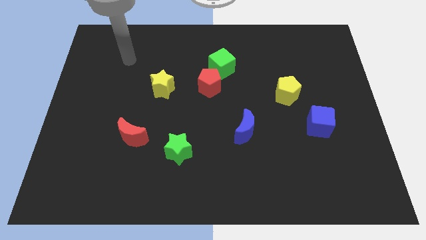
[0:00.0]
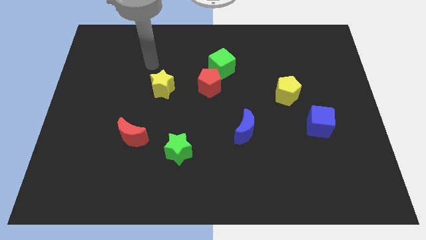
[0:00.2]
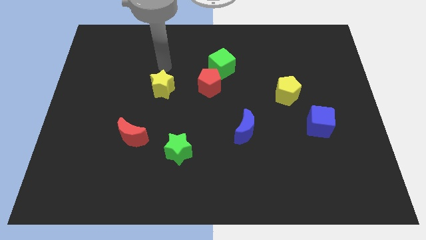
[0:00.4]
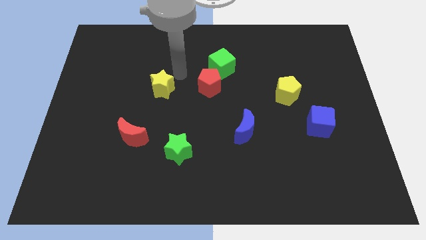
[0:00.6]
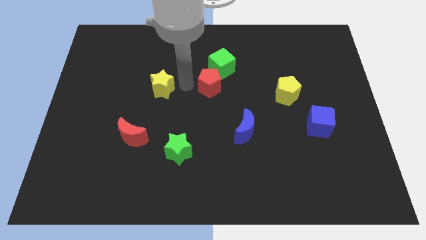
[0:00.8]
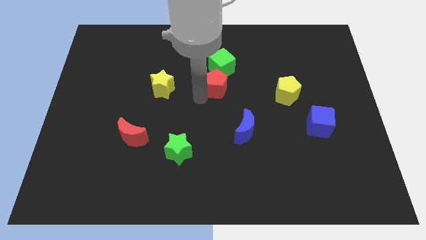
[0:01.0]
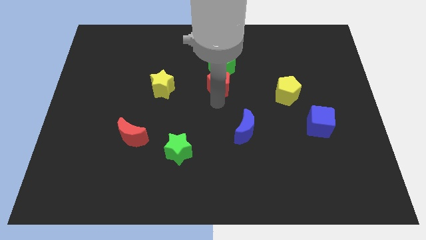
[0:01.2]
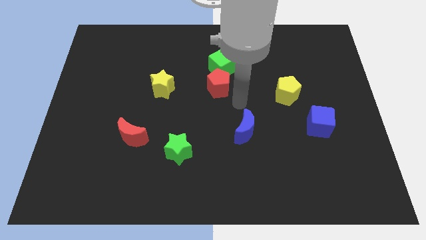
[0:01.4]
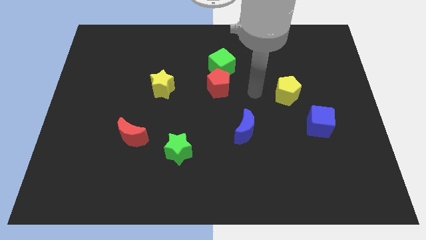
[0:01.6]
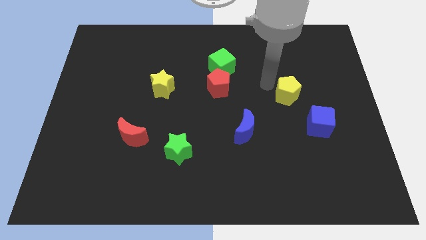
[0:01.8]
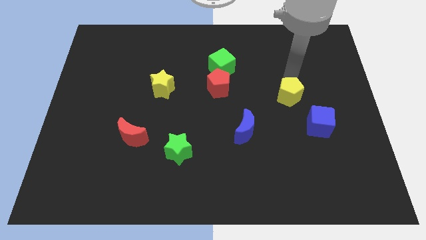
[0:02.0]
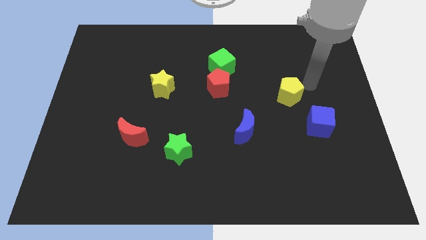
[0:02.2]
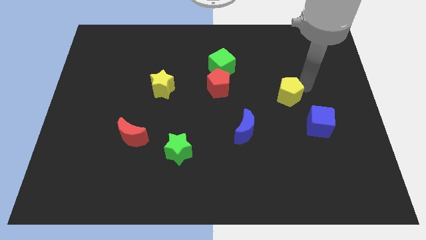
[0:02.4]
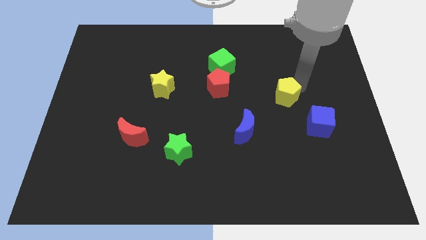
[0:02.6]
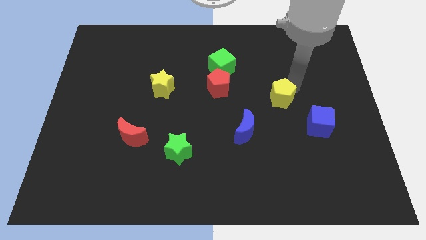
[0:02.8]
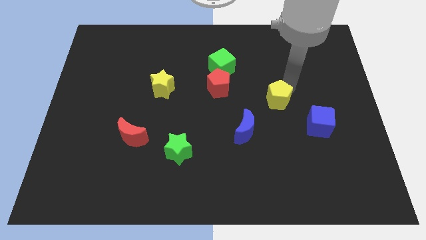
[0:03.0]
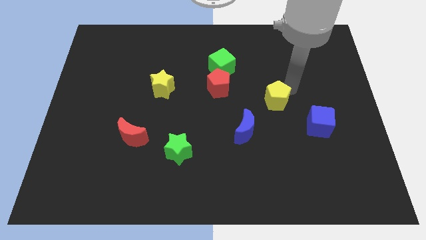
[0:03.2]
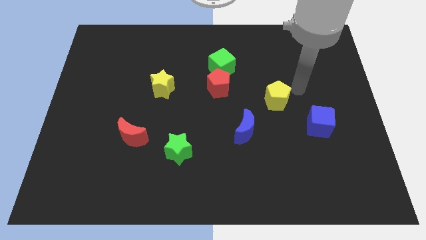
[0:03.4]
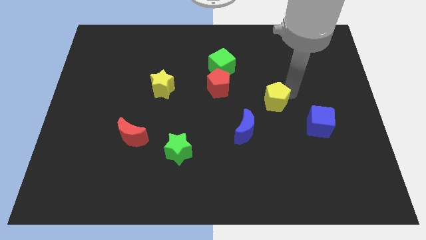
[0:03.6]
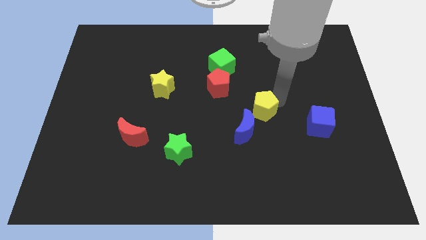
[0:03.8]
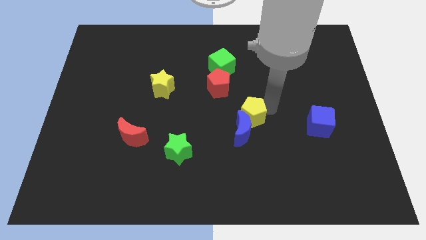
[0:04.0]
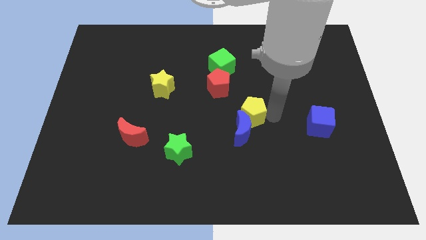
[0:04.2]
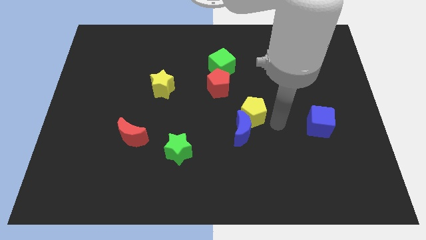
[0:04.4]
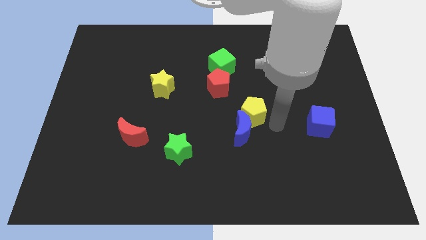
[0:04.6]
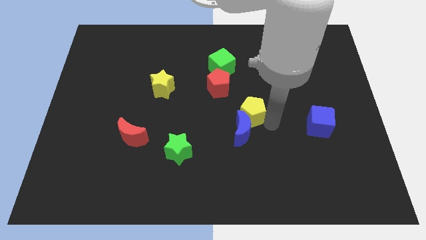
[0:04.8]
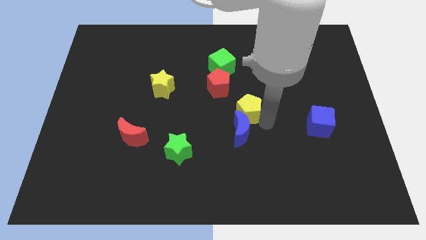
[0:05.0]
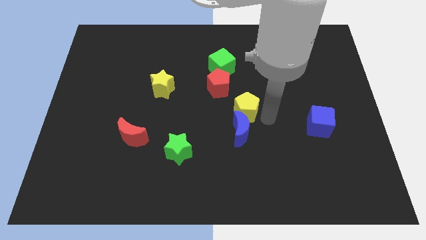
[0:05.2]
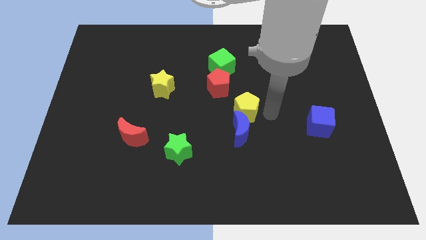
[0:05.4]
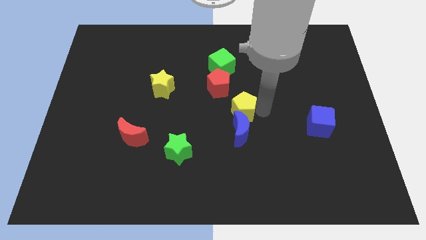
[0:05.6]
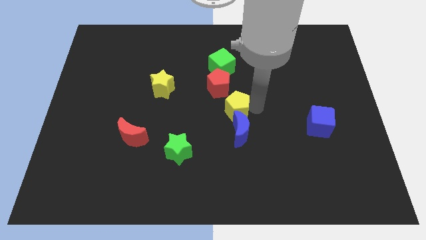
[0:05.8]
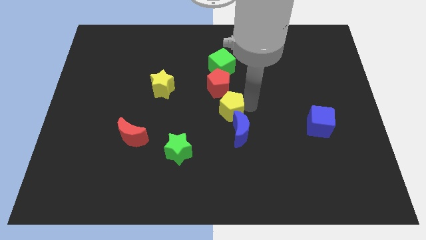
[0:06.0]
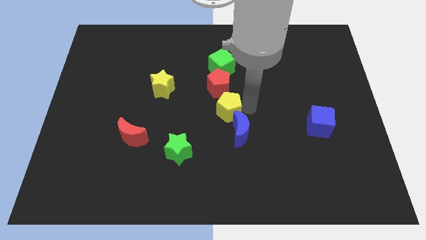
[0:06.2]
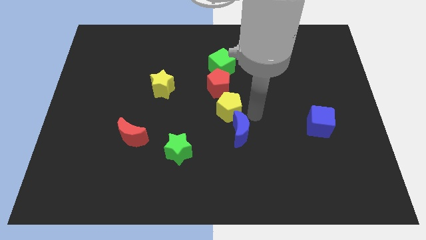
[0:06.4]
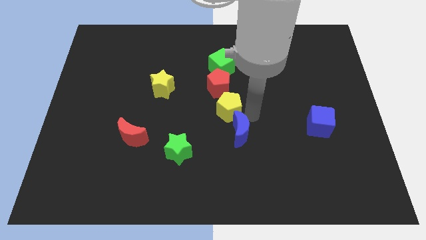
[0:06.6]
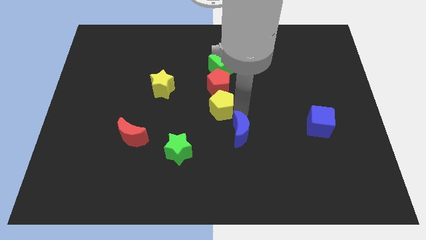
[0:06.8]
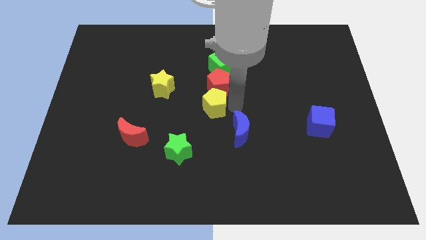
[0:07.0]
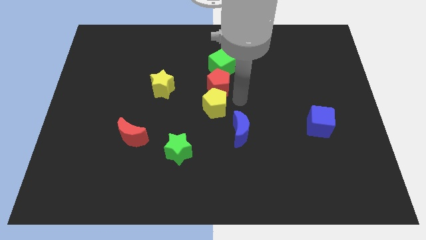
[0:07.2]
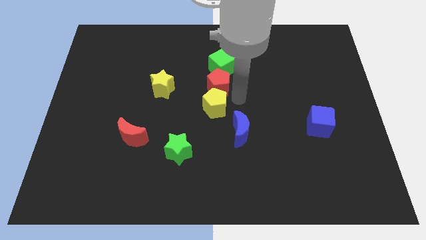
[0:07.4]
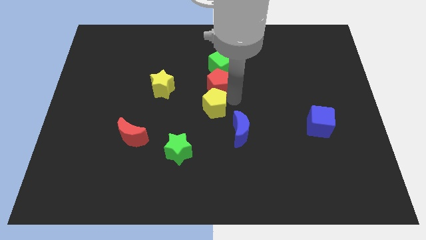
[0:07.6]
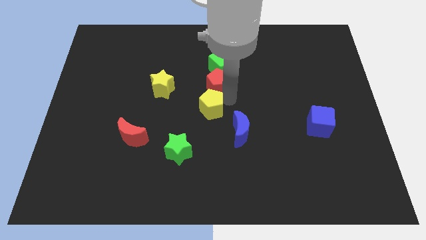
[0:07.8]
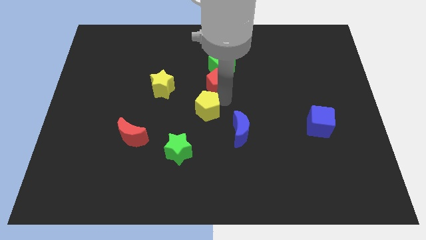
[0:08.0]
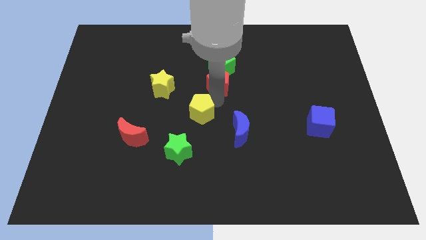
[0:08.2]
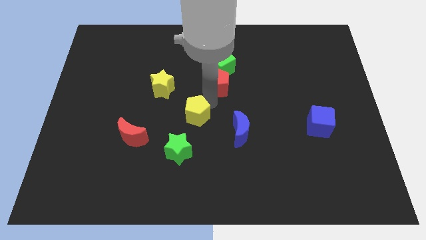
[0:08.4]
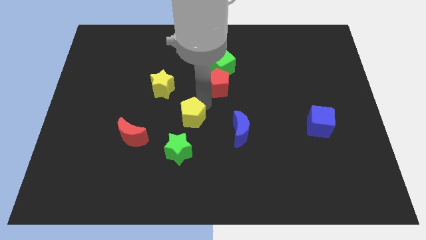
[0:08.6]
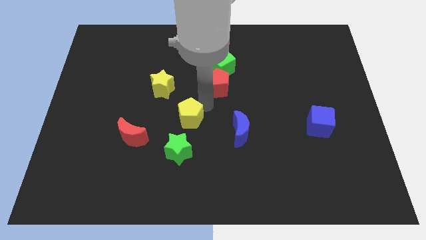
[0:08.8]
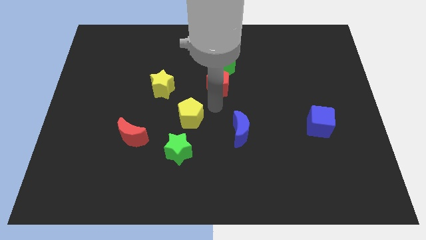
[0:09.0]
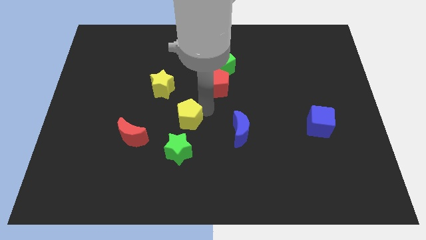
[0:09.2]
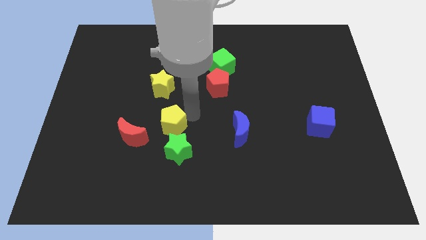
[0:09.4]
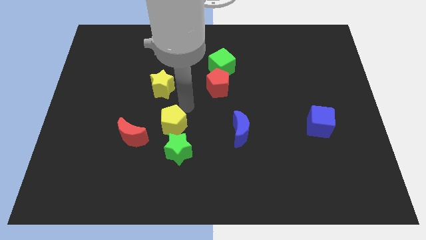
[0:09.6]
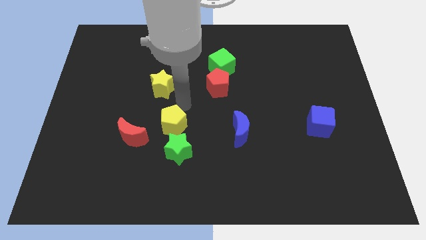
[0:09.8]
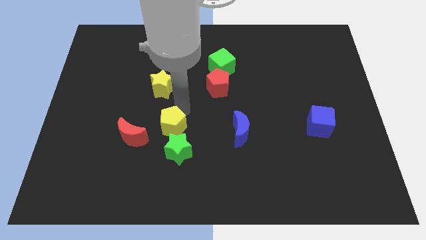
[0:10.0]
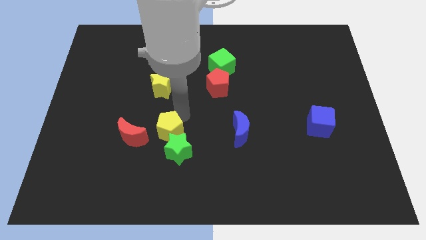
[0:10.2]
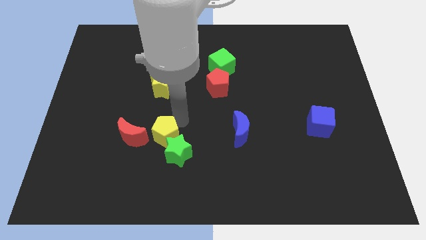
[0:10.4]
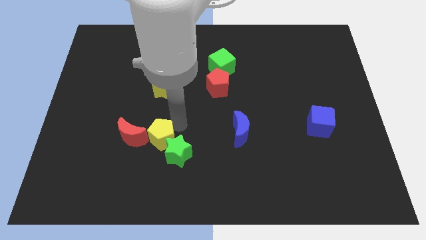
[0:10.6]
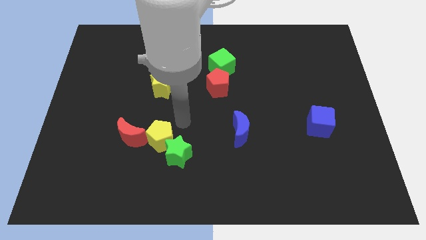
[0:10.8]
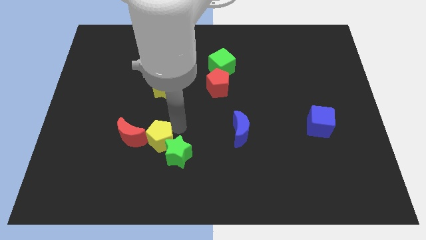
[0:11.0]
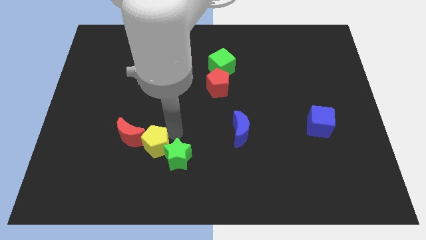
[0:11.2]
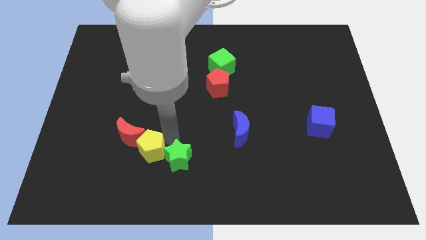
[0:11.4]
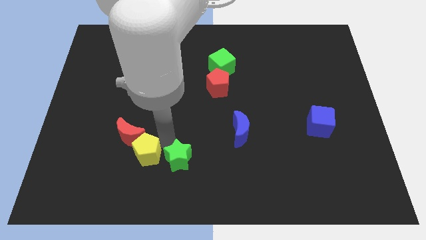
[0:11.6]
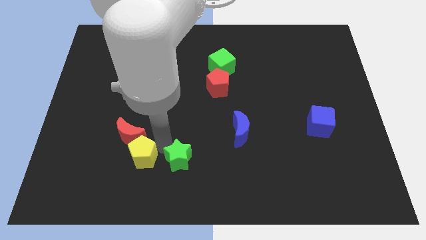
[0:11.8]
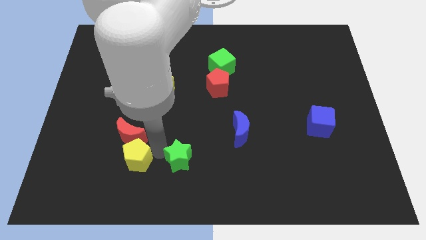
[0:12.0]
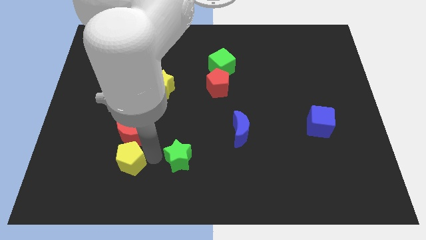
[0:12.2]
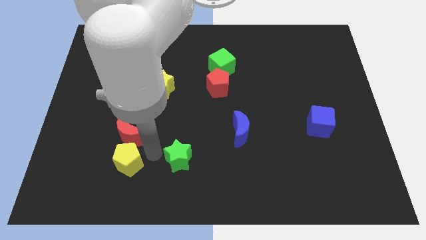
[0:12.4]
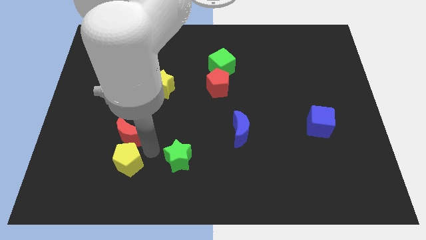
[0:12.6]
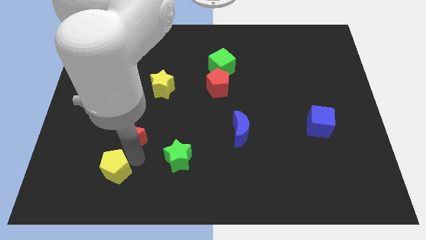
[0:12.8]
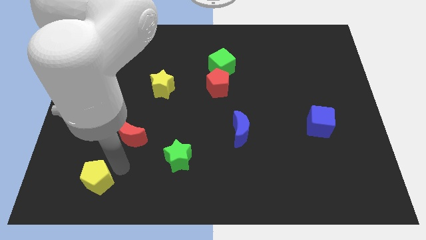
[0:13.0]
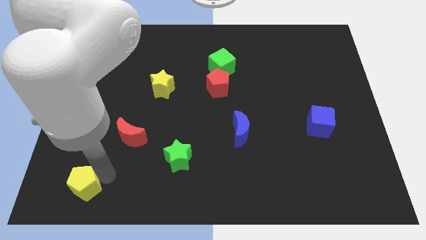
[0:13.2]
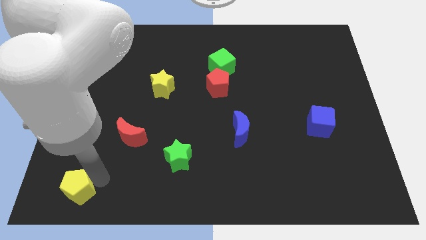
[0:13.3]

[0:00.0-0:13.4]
slide the yellow pentagon to the bottom left corner
